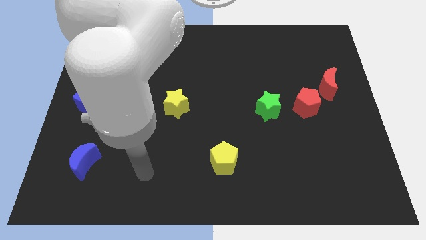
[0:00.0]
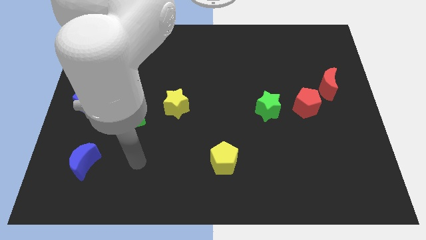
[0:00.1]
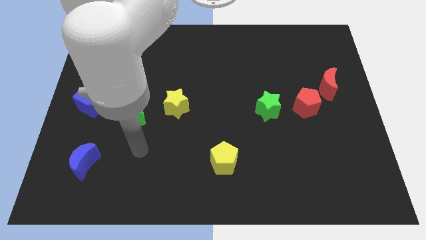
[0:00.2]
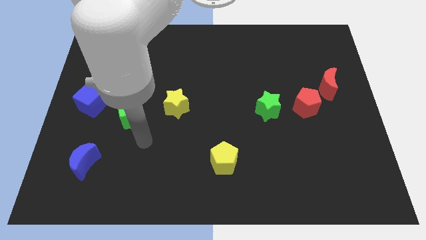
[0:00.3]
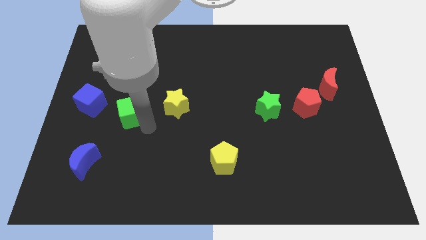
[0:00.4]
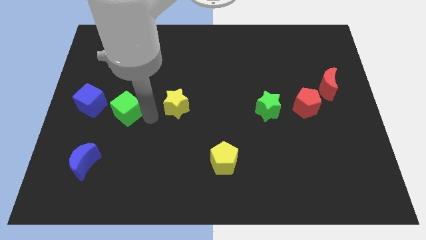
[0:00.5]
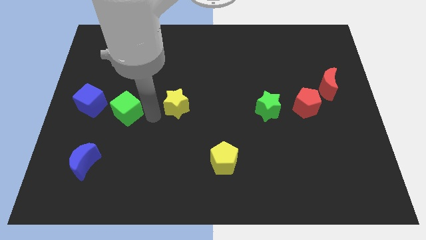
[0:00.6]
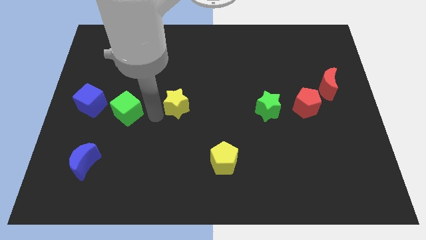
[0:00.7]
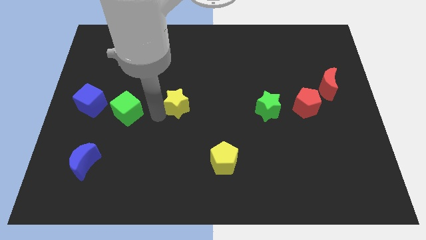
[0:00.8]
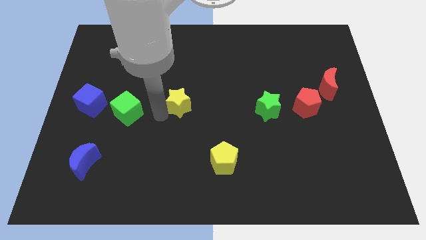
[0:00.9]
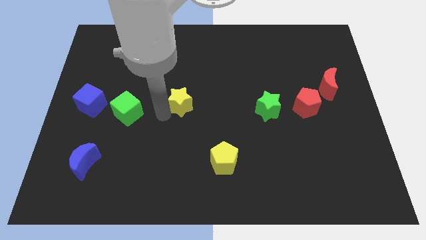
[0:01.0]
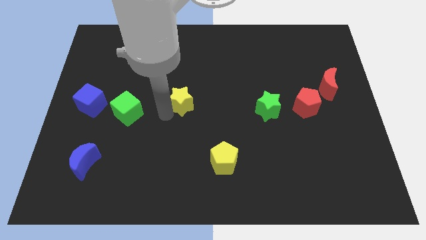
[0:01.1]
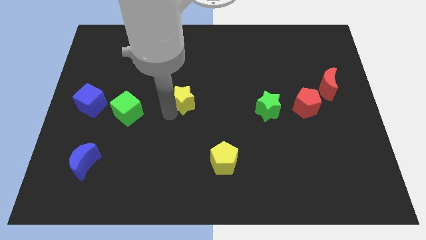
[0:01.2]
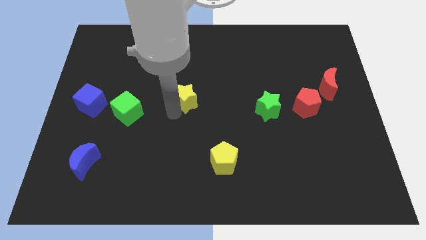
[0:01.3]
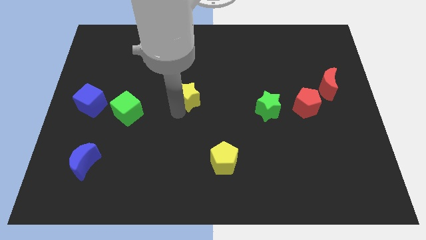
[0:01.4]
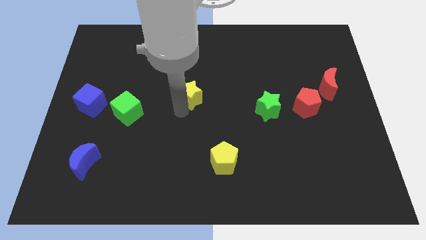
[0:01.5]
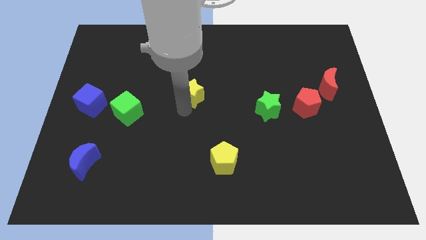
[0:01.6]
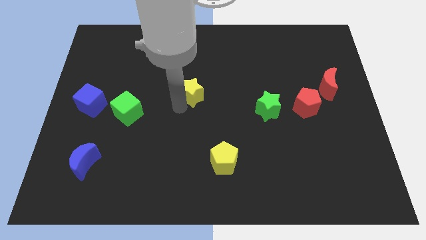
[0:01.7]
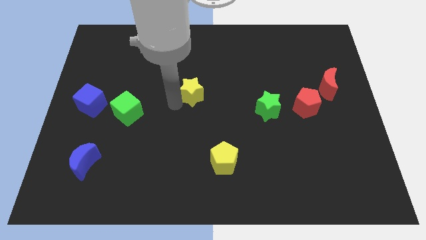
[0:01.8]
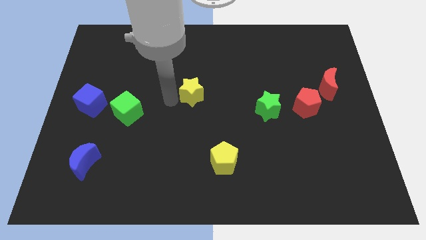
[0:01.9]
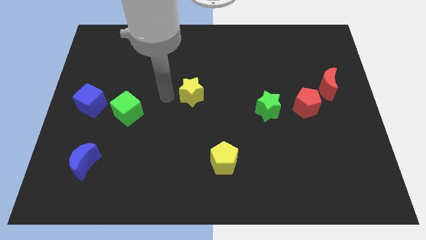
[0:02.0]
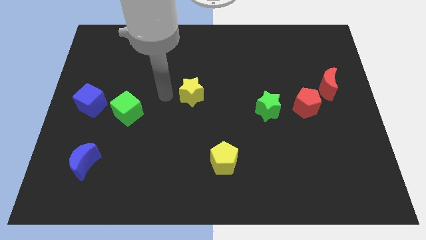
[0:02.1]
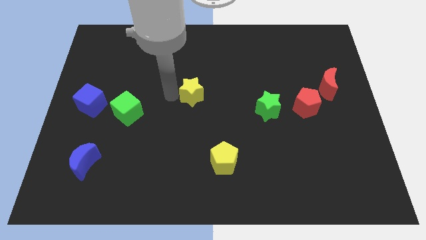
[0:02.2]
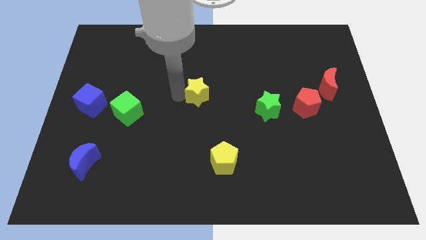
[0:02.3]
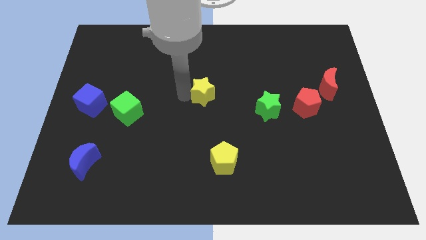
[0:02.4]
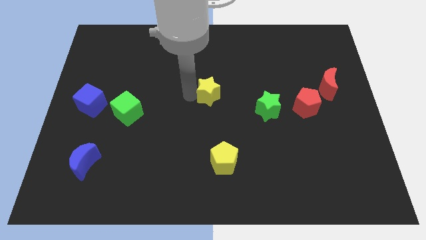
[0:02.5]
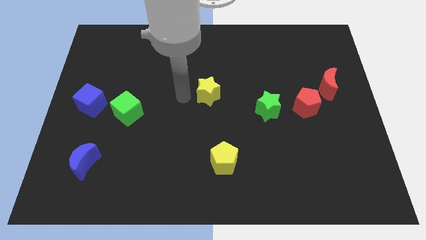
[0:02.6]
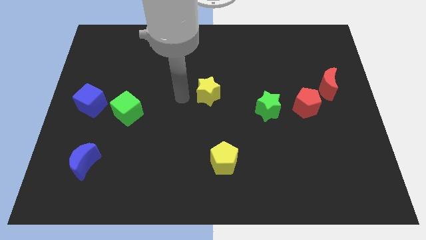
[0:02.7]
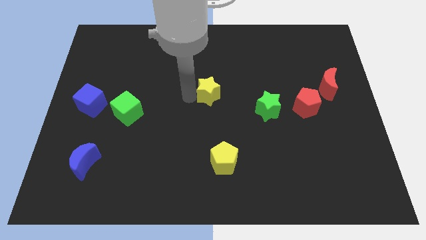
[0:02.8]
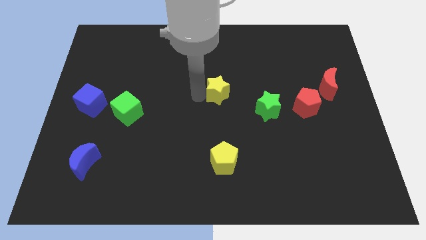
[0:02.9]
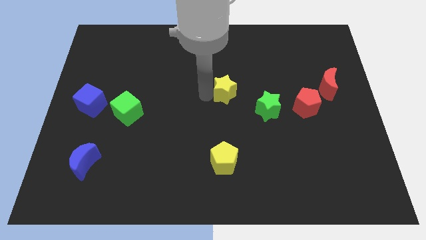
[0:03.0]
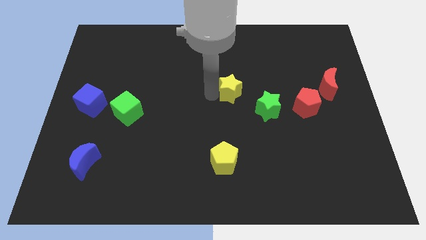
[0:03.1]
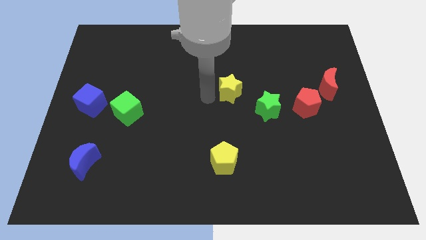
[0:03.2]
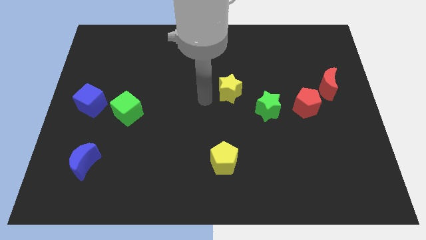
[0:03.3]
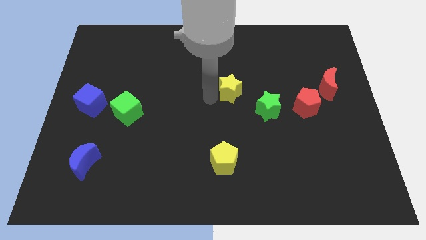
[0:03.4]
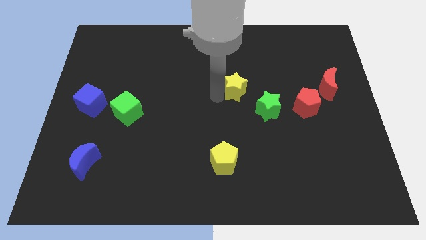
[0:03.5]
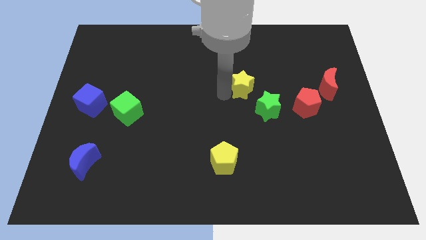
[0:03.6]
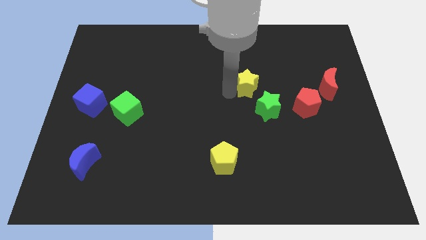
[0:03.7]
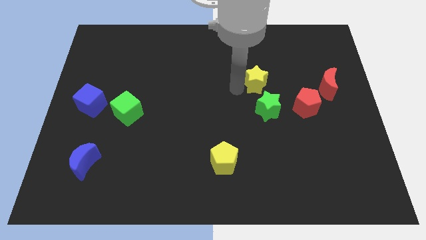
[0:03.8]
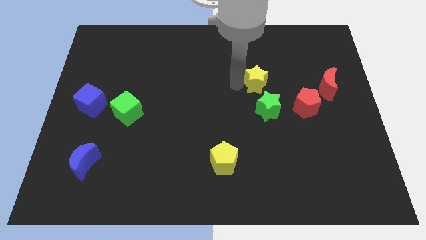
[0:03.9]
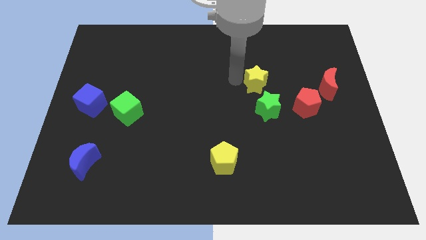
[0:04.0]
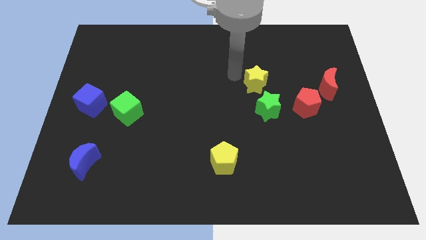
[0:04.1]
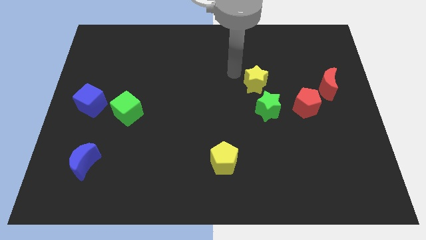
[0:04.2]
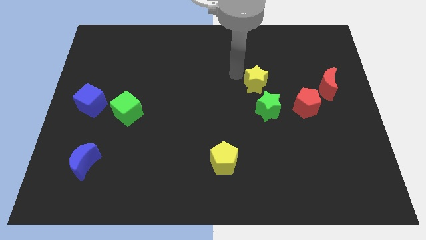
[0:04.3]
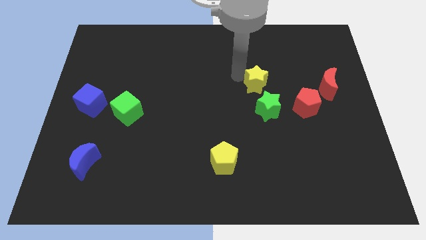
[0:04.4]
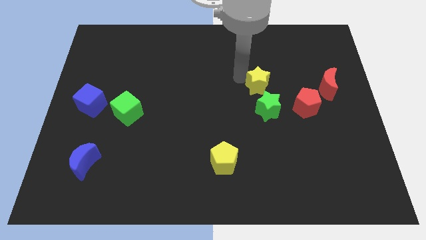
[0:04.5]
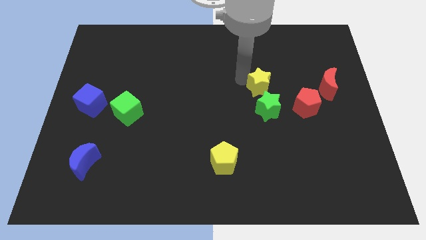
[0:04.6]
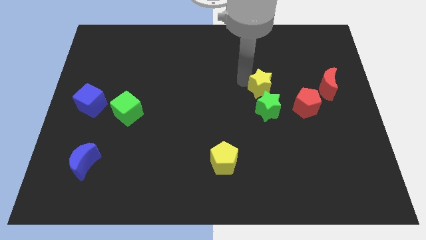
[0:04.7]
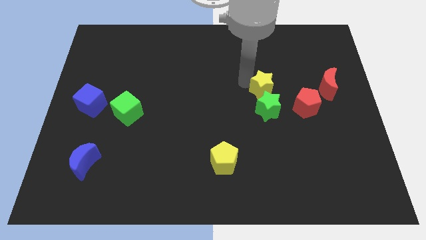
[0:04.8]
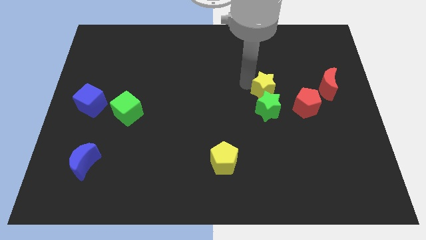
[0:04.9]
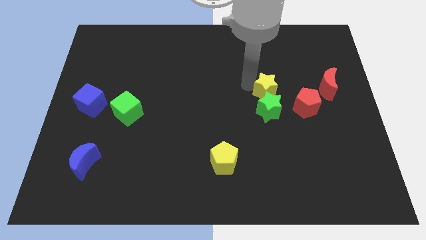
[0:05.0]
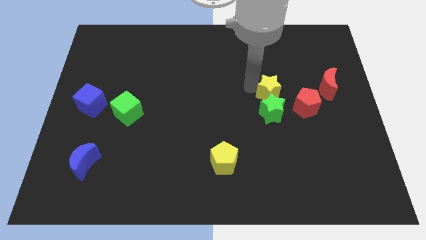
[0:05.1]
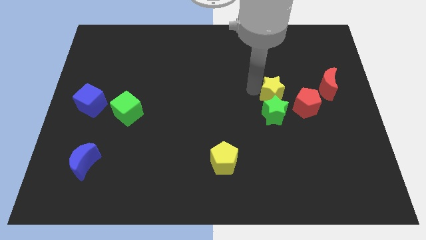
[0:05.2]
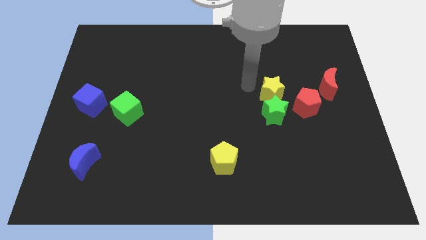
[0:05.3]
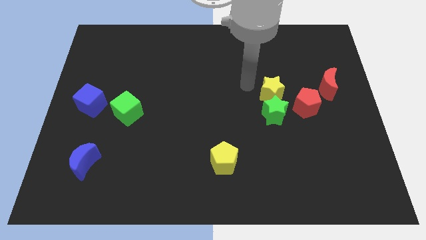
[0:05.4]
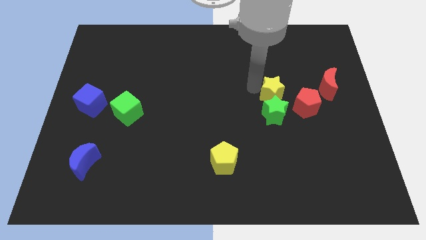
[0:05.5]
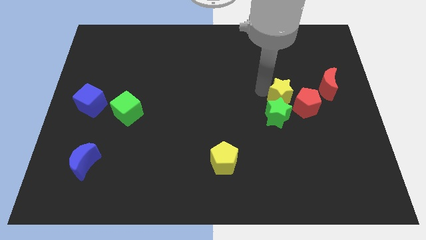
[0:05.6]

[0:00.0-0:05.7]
move the yellow star to the red pentagon
